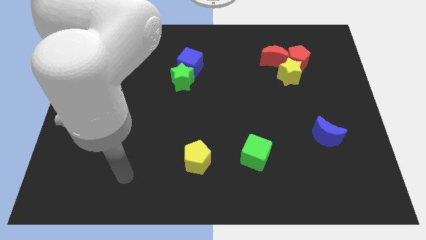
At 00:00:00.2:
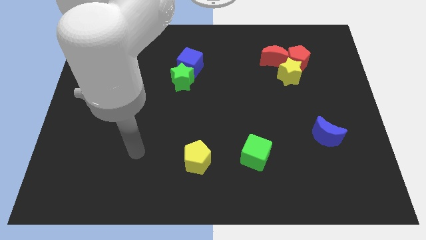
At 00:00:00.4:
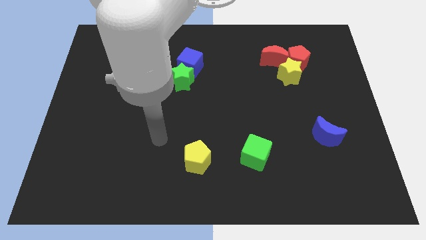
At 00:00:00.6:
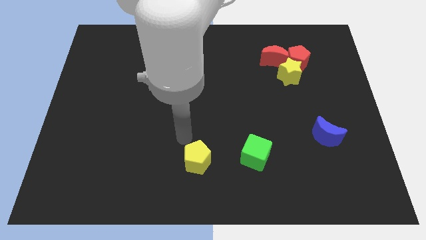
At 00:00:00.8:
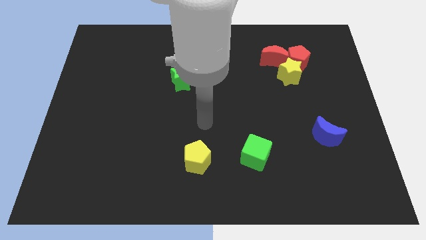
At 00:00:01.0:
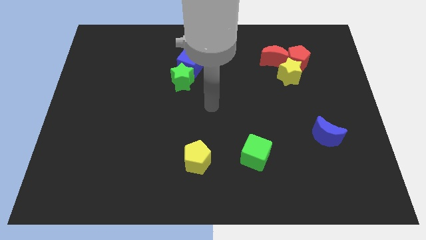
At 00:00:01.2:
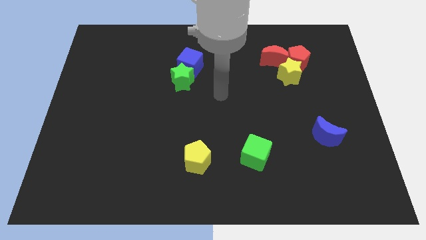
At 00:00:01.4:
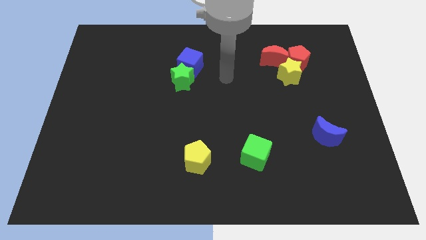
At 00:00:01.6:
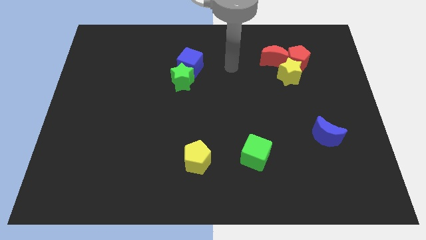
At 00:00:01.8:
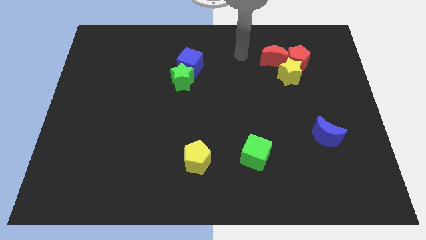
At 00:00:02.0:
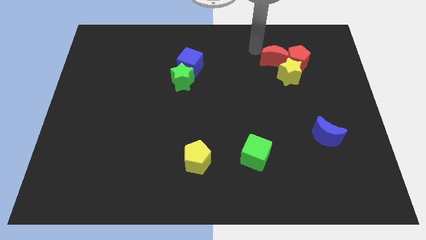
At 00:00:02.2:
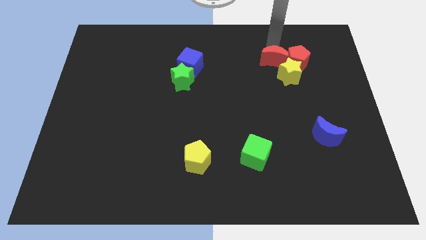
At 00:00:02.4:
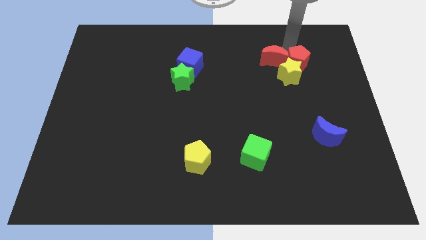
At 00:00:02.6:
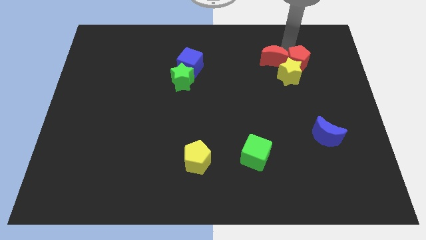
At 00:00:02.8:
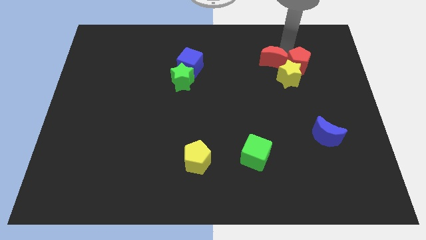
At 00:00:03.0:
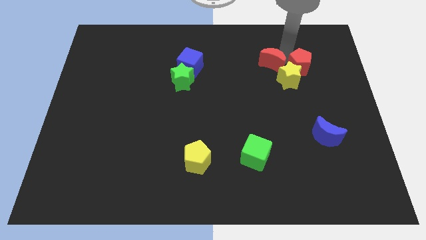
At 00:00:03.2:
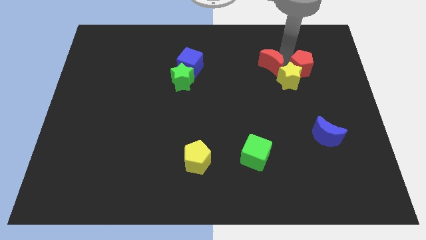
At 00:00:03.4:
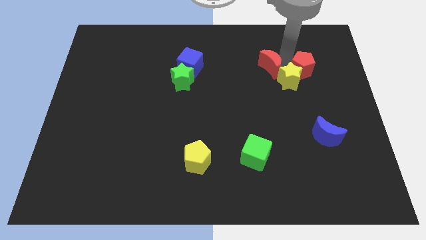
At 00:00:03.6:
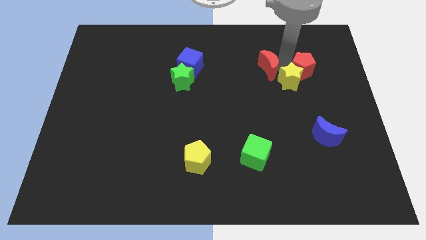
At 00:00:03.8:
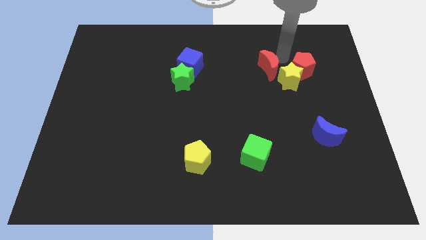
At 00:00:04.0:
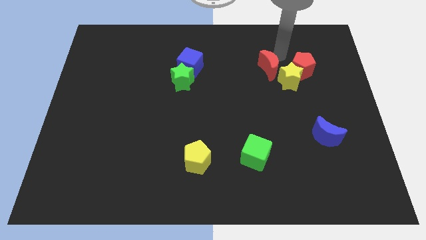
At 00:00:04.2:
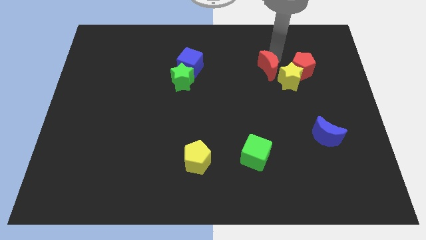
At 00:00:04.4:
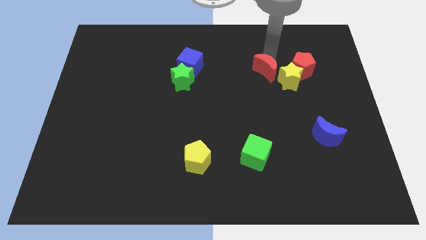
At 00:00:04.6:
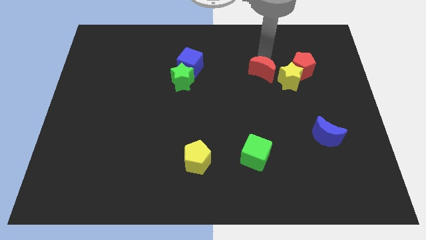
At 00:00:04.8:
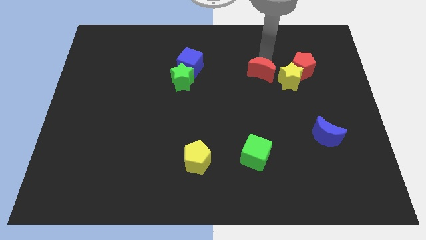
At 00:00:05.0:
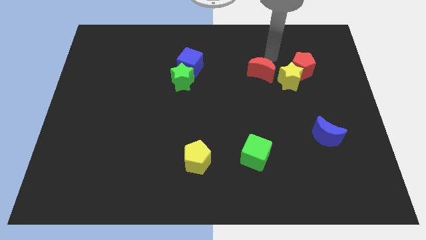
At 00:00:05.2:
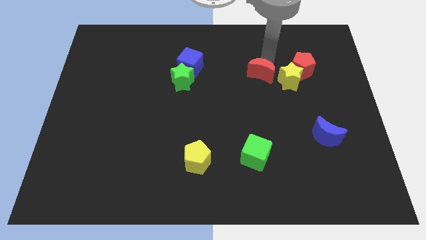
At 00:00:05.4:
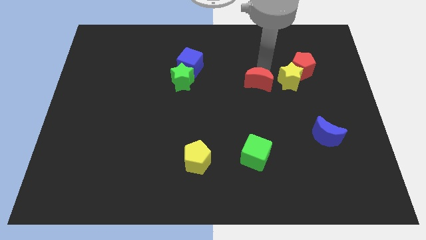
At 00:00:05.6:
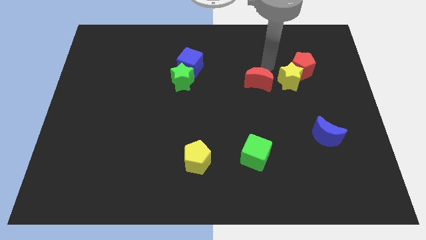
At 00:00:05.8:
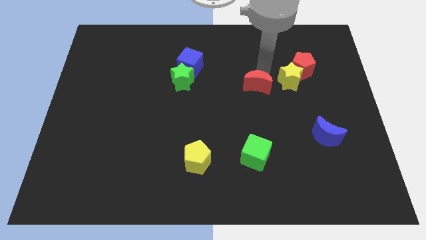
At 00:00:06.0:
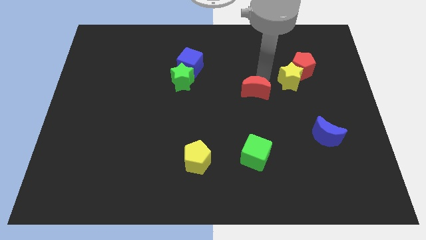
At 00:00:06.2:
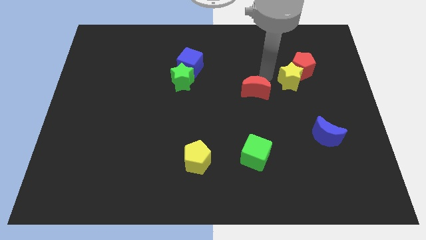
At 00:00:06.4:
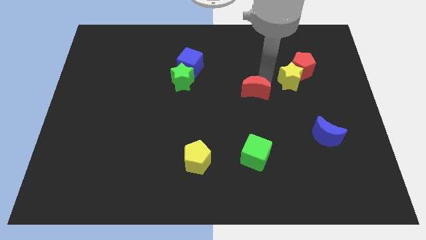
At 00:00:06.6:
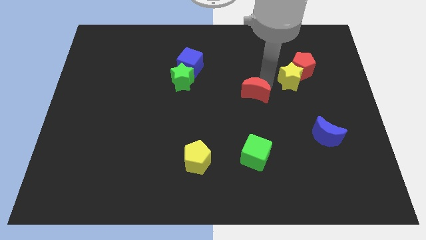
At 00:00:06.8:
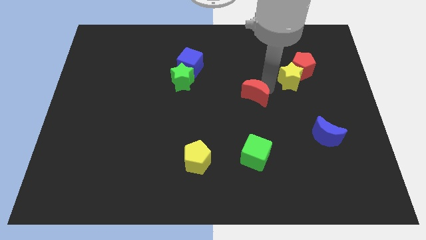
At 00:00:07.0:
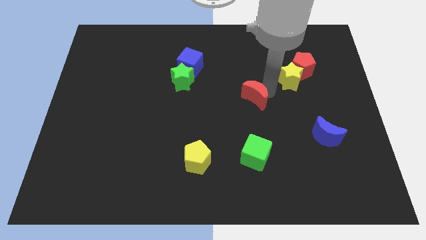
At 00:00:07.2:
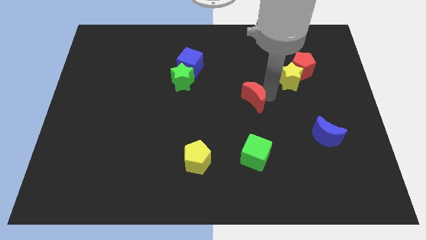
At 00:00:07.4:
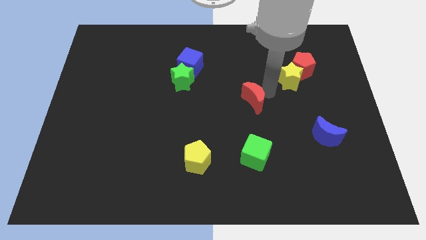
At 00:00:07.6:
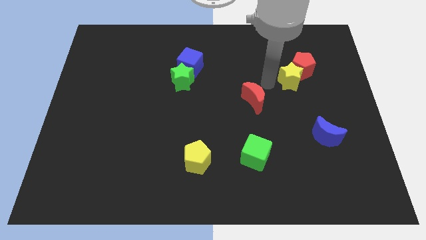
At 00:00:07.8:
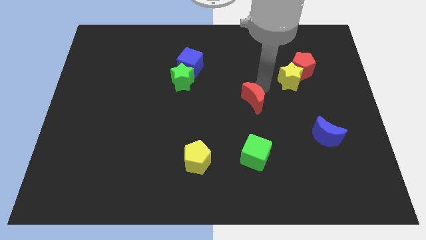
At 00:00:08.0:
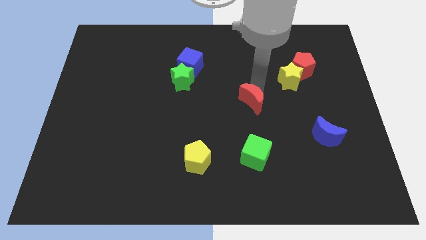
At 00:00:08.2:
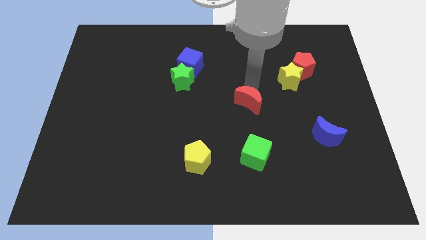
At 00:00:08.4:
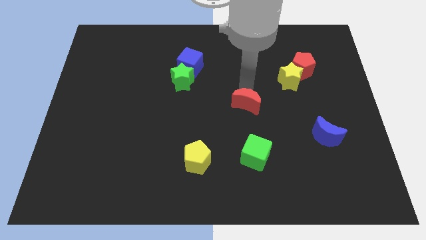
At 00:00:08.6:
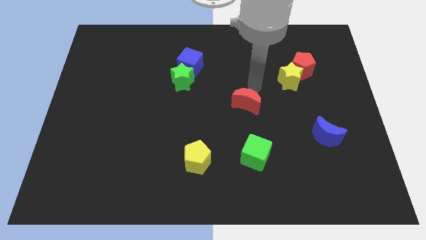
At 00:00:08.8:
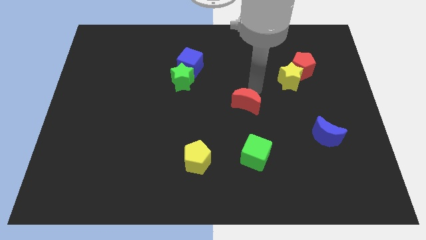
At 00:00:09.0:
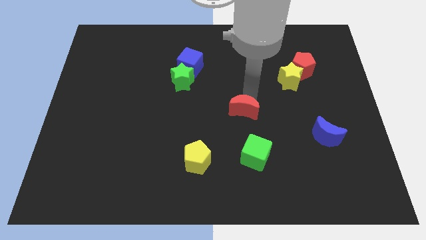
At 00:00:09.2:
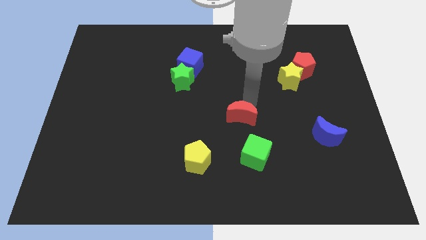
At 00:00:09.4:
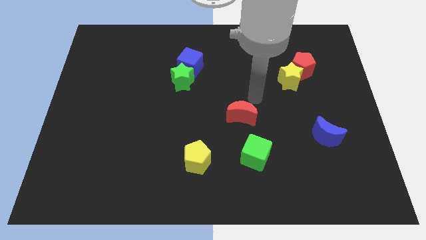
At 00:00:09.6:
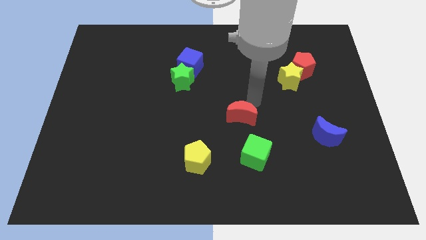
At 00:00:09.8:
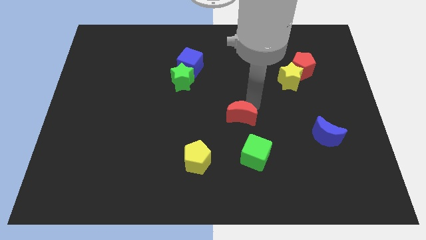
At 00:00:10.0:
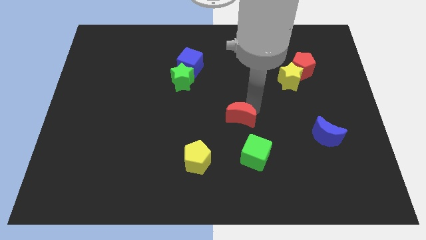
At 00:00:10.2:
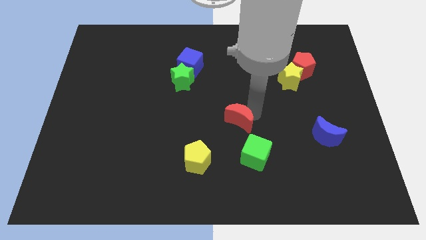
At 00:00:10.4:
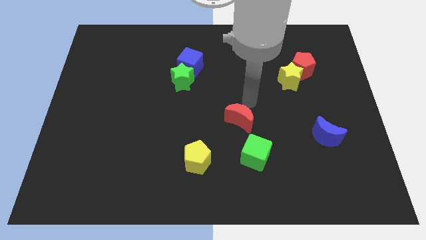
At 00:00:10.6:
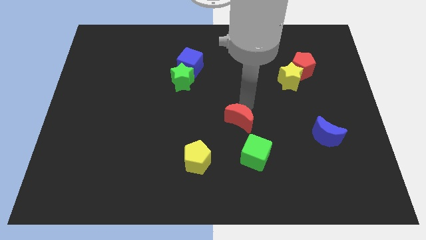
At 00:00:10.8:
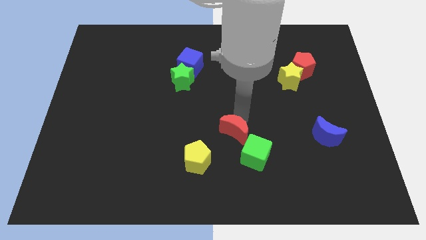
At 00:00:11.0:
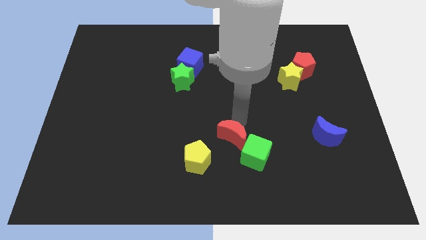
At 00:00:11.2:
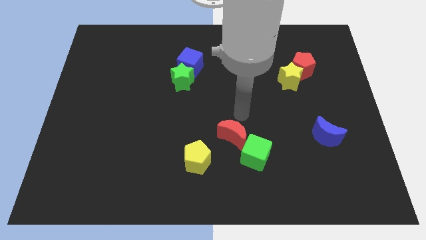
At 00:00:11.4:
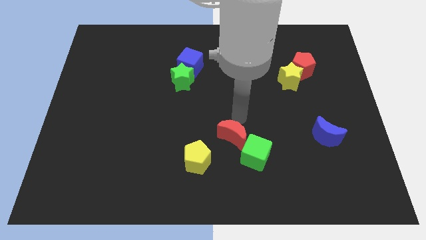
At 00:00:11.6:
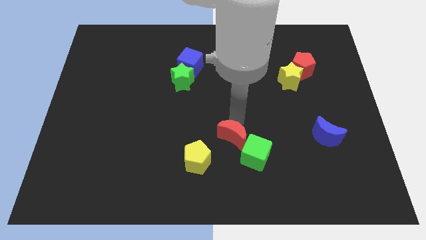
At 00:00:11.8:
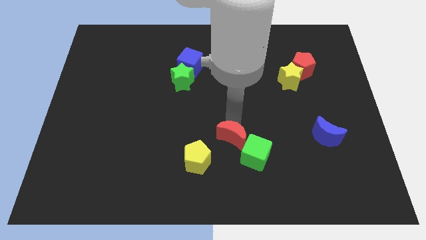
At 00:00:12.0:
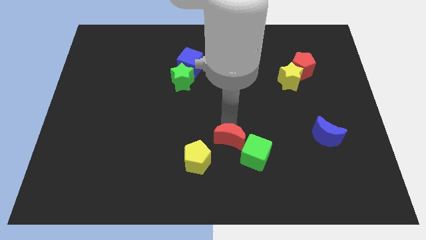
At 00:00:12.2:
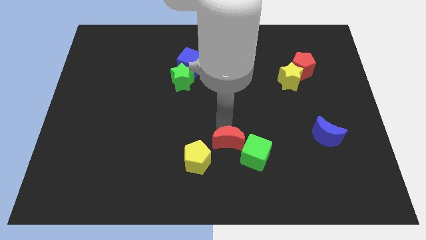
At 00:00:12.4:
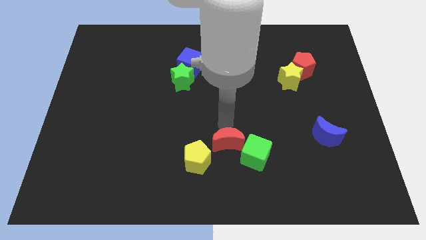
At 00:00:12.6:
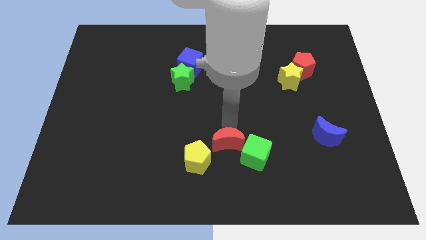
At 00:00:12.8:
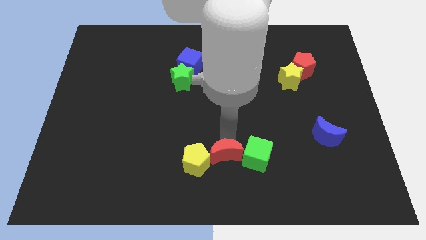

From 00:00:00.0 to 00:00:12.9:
move the red moon to the bottom

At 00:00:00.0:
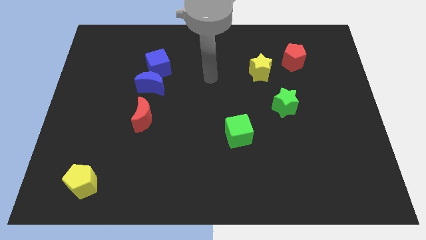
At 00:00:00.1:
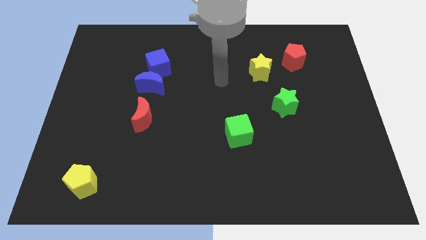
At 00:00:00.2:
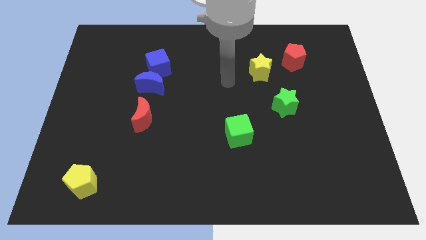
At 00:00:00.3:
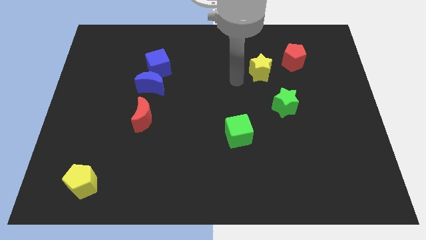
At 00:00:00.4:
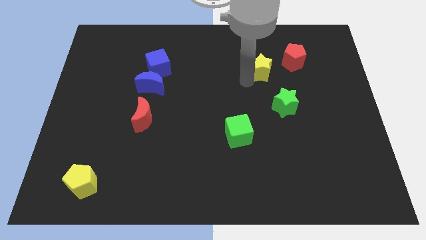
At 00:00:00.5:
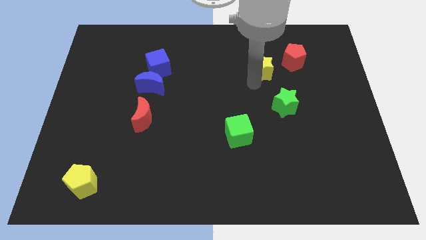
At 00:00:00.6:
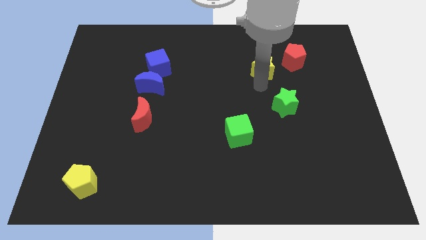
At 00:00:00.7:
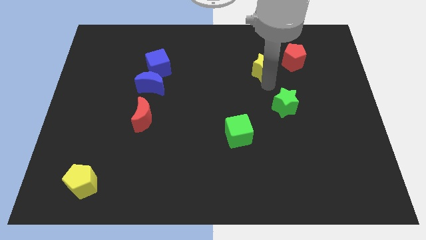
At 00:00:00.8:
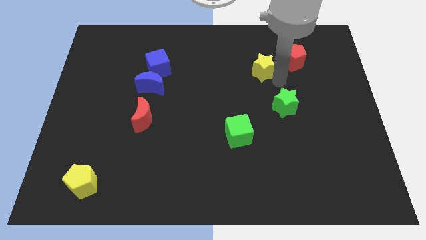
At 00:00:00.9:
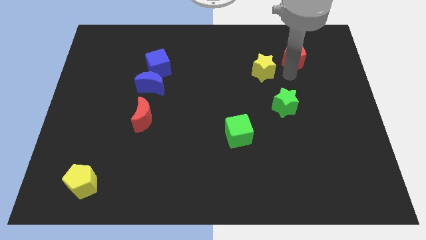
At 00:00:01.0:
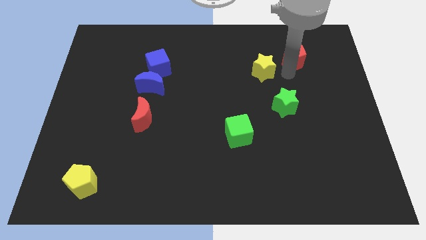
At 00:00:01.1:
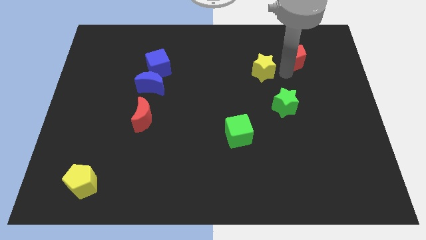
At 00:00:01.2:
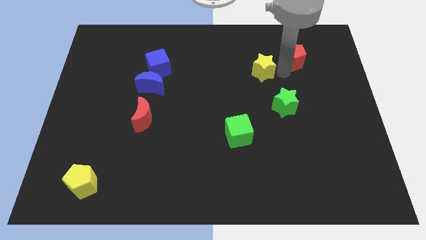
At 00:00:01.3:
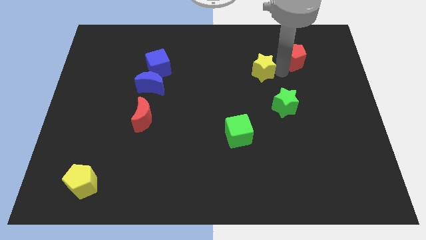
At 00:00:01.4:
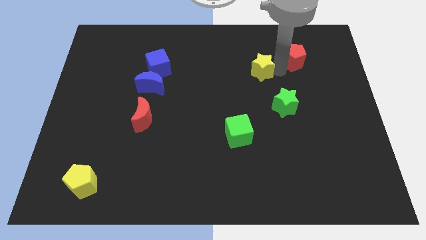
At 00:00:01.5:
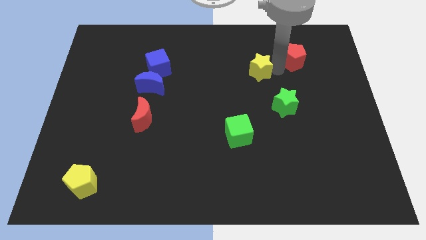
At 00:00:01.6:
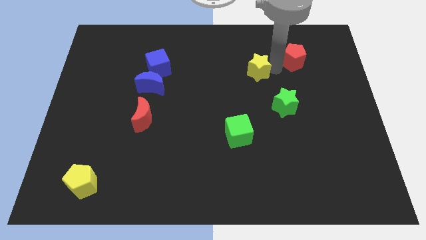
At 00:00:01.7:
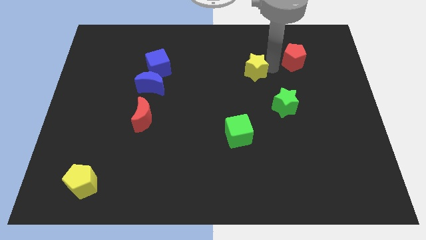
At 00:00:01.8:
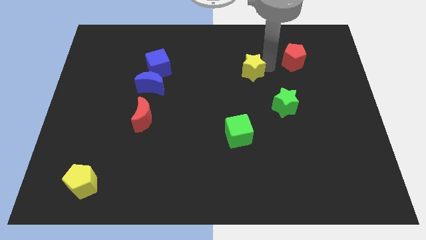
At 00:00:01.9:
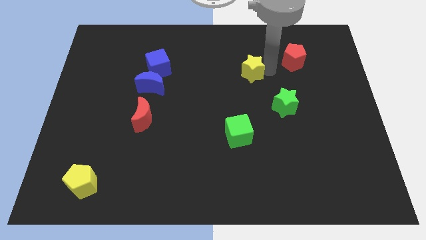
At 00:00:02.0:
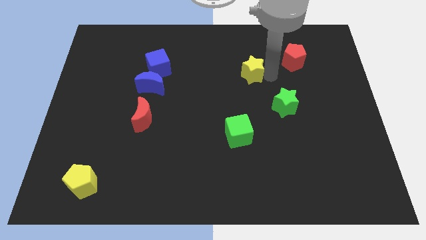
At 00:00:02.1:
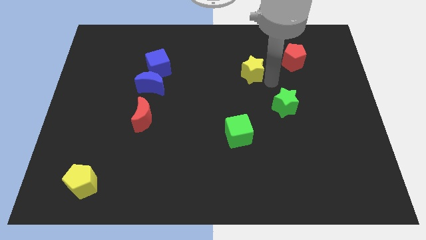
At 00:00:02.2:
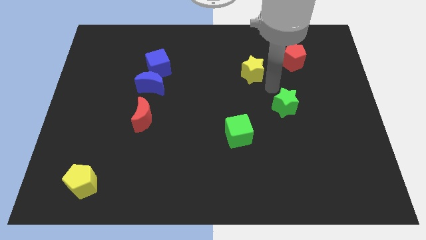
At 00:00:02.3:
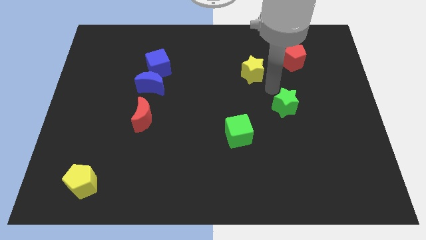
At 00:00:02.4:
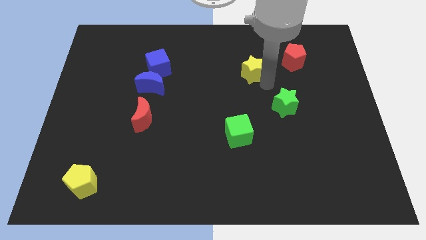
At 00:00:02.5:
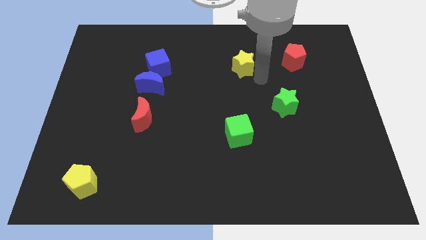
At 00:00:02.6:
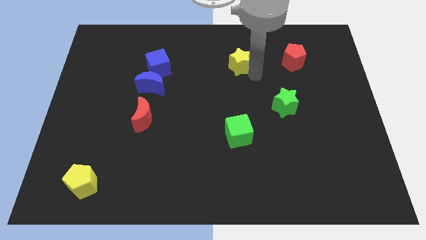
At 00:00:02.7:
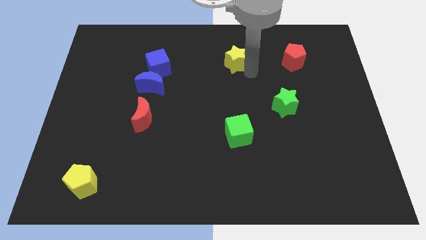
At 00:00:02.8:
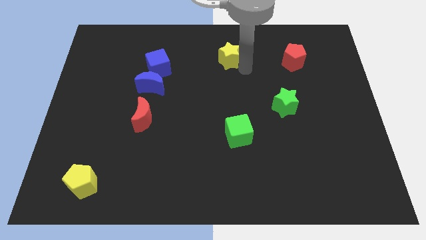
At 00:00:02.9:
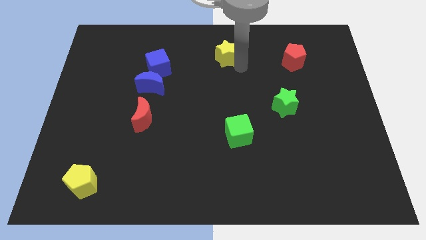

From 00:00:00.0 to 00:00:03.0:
push the yellow star to the top side
